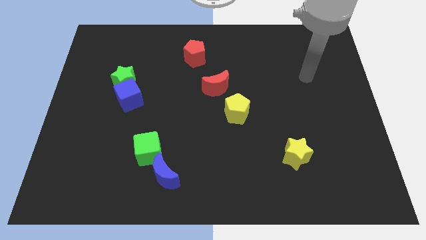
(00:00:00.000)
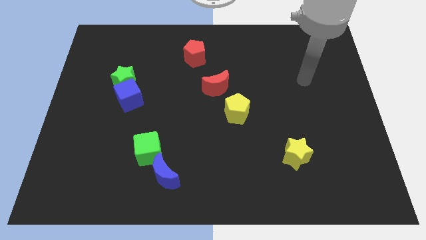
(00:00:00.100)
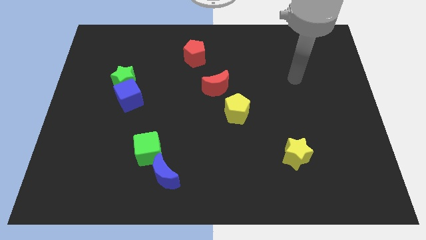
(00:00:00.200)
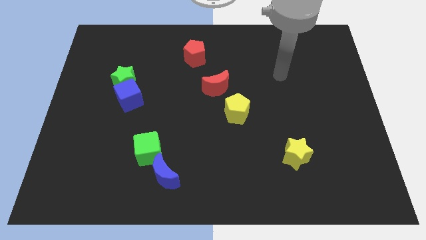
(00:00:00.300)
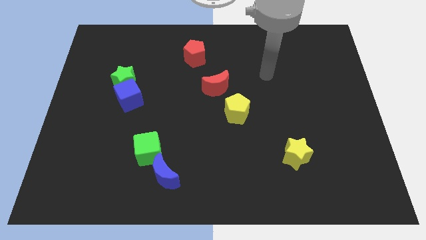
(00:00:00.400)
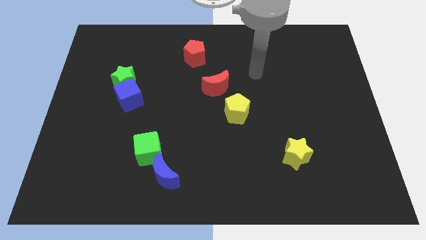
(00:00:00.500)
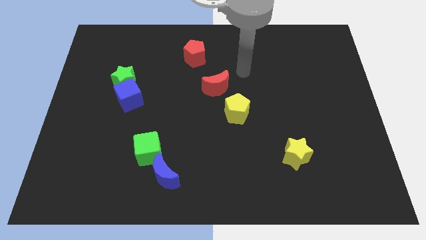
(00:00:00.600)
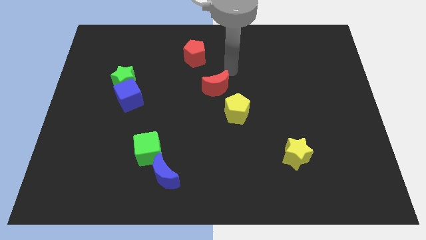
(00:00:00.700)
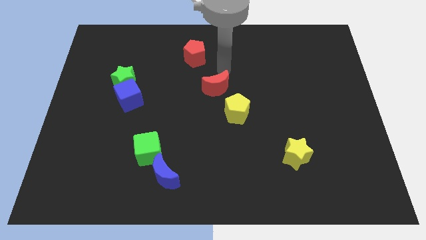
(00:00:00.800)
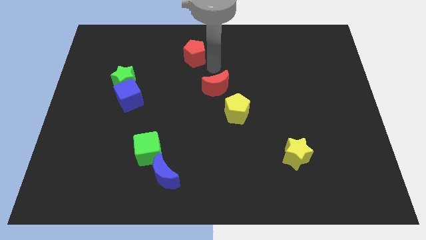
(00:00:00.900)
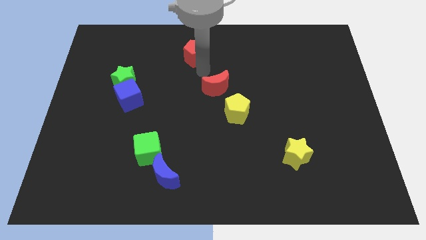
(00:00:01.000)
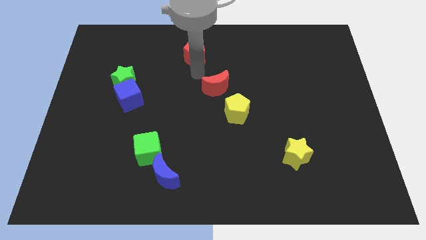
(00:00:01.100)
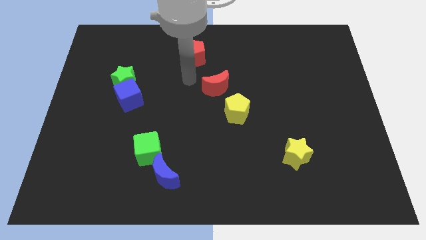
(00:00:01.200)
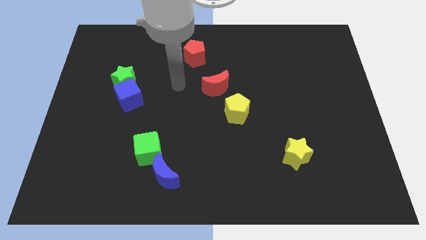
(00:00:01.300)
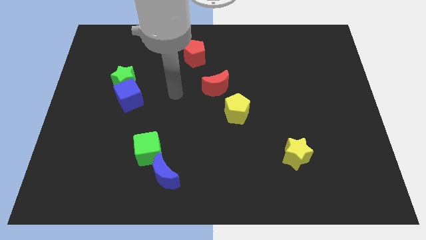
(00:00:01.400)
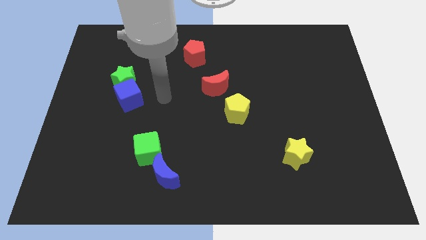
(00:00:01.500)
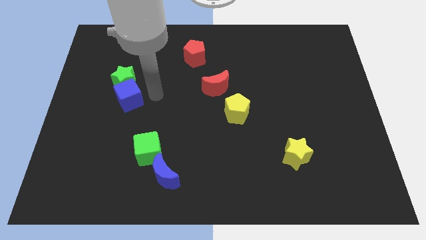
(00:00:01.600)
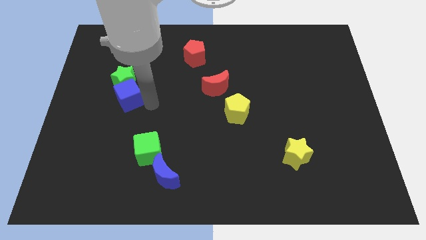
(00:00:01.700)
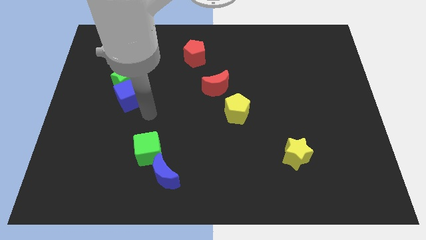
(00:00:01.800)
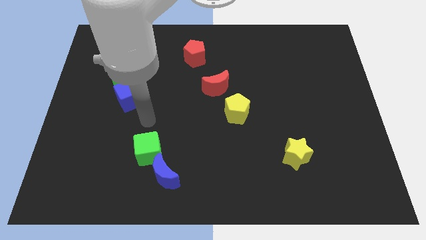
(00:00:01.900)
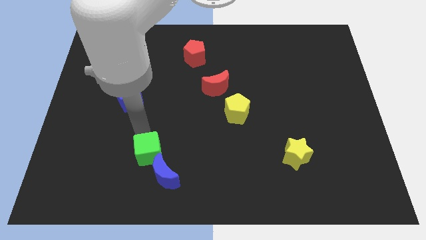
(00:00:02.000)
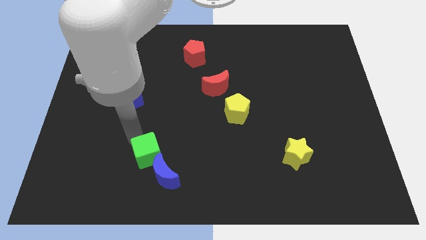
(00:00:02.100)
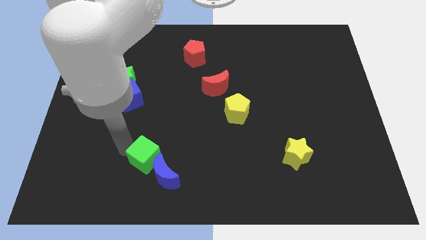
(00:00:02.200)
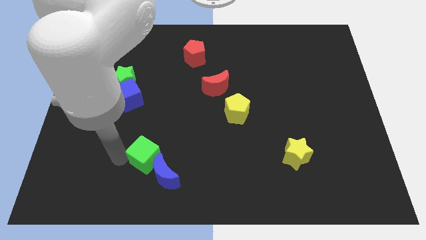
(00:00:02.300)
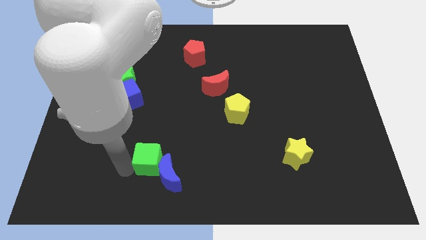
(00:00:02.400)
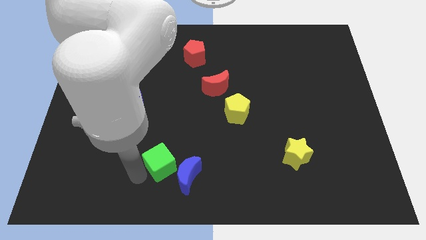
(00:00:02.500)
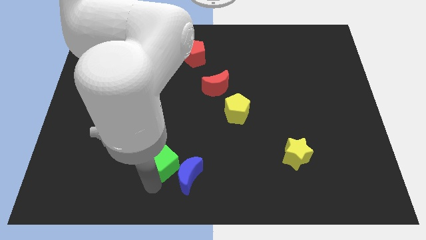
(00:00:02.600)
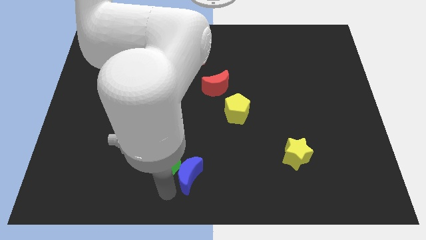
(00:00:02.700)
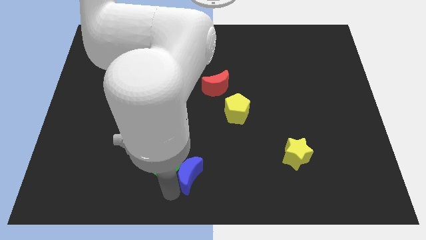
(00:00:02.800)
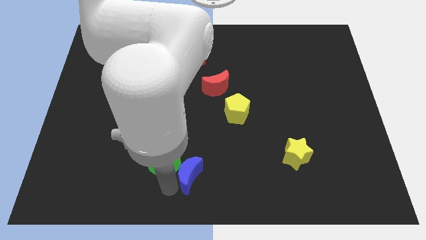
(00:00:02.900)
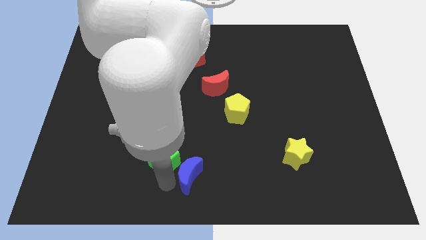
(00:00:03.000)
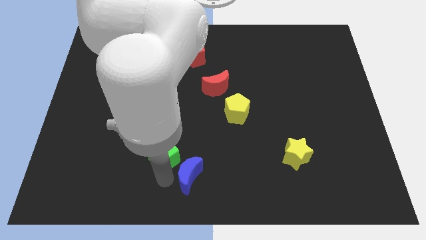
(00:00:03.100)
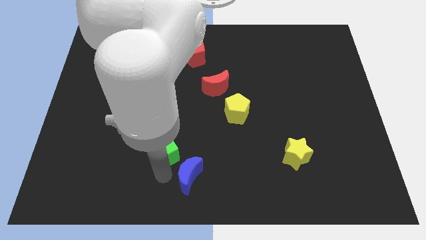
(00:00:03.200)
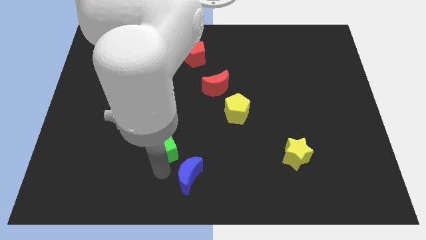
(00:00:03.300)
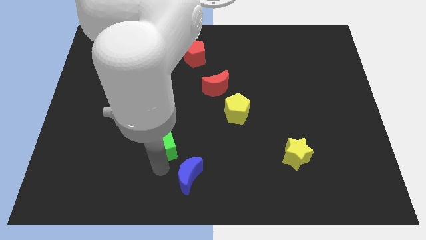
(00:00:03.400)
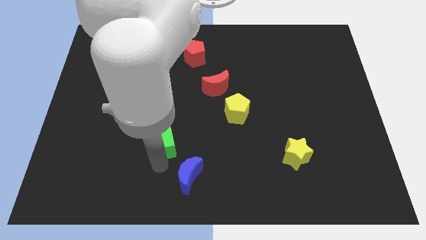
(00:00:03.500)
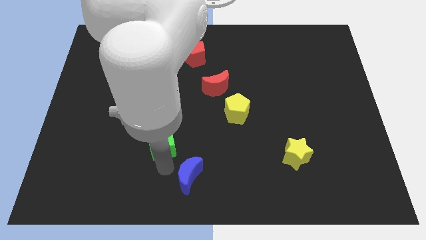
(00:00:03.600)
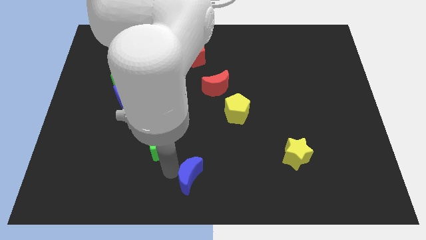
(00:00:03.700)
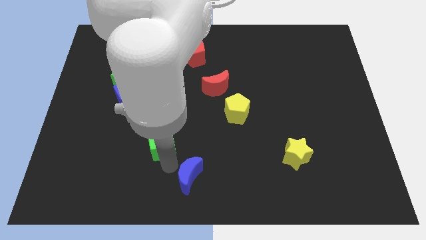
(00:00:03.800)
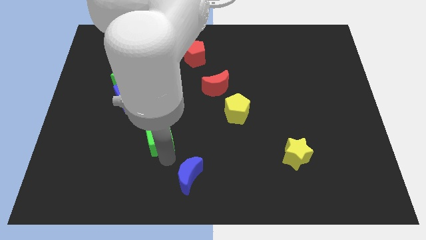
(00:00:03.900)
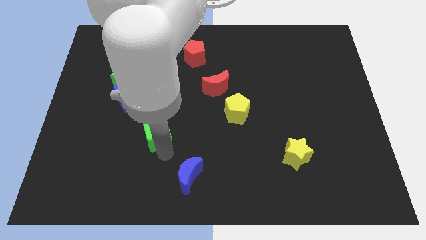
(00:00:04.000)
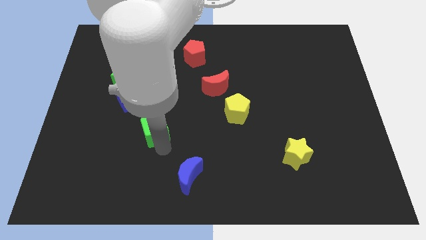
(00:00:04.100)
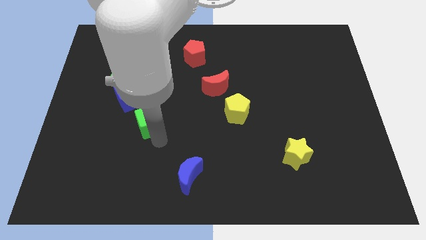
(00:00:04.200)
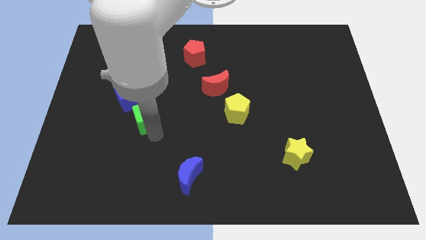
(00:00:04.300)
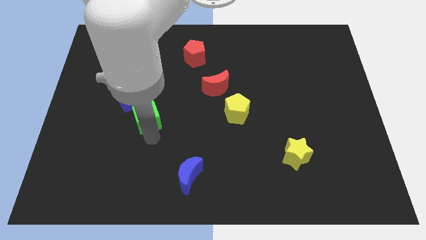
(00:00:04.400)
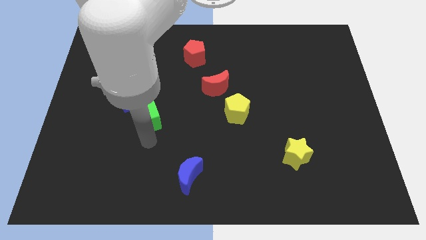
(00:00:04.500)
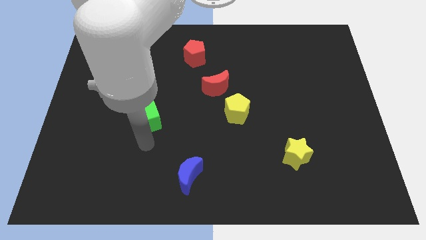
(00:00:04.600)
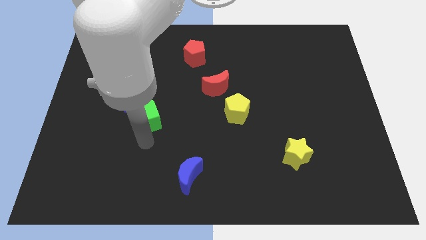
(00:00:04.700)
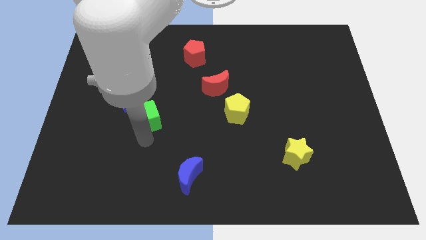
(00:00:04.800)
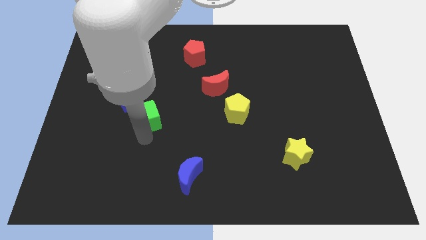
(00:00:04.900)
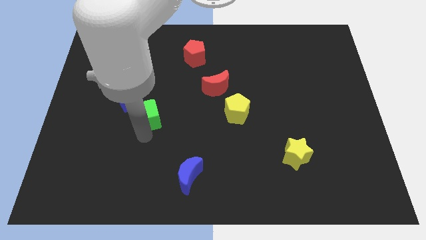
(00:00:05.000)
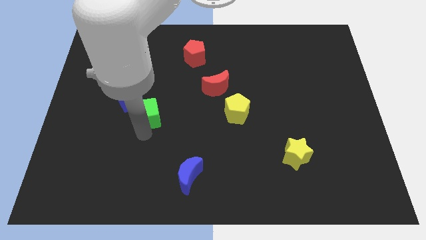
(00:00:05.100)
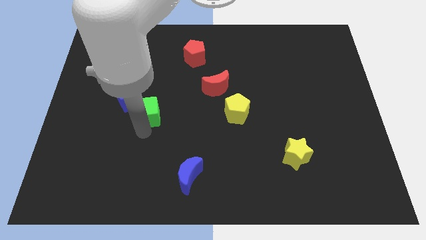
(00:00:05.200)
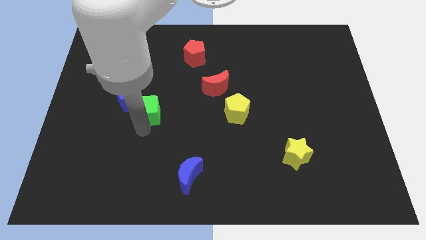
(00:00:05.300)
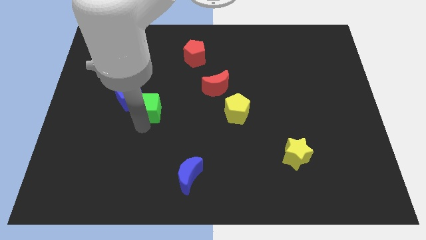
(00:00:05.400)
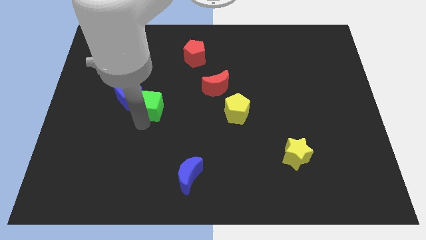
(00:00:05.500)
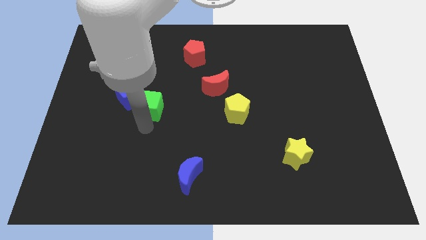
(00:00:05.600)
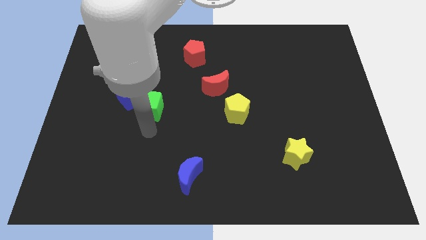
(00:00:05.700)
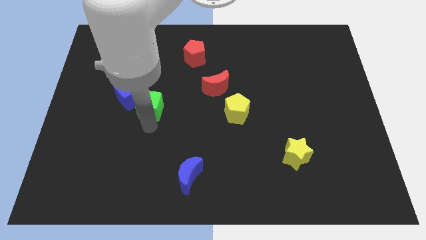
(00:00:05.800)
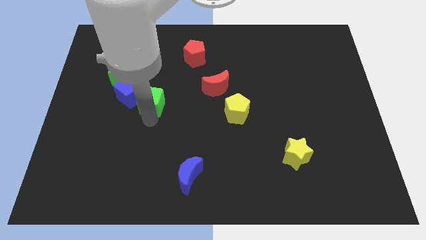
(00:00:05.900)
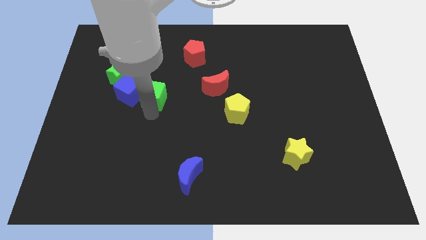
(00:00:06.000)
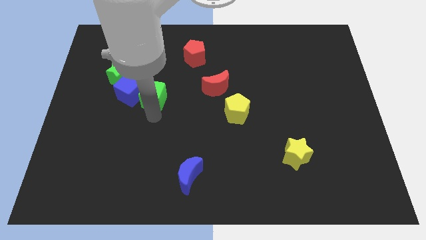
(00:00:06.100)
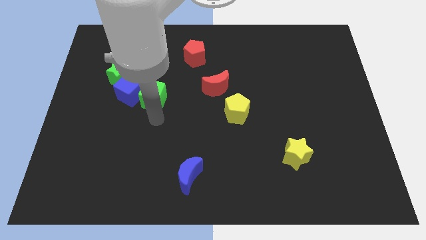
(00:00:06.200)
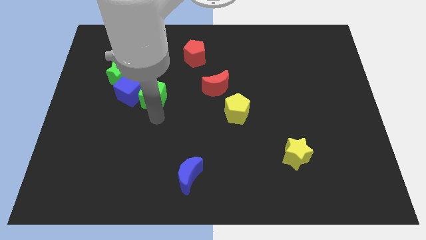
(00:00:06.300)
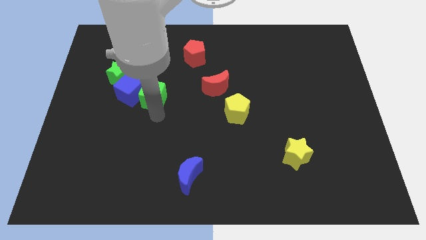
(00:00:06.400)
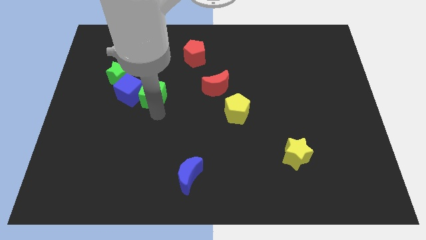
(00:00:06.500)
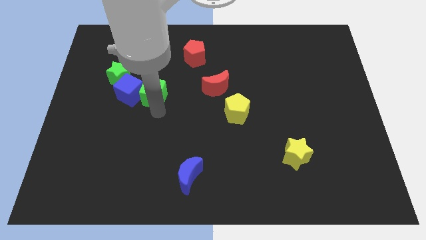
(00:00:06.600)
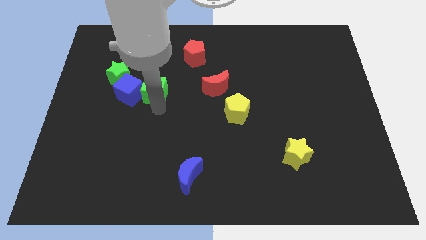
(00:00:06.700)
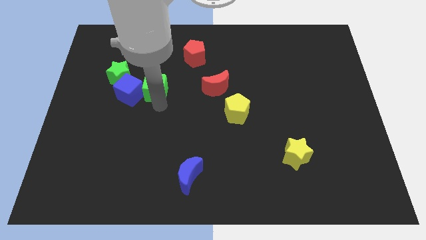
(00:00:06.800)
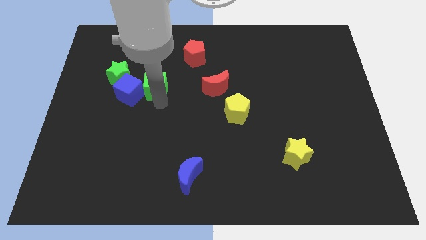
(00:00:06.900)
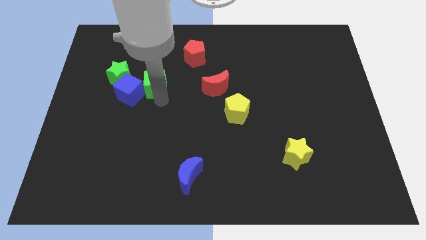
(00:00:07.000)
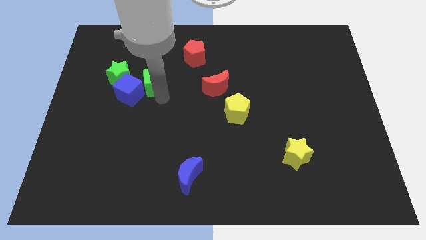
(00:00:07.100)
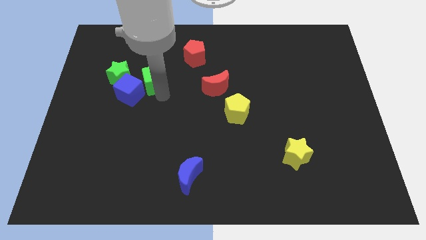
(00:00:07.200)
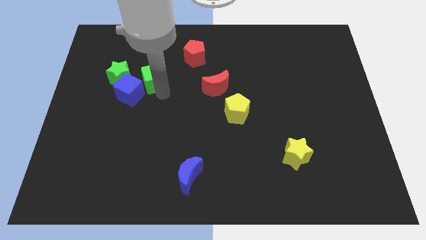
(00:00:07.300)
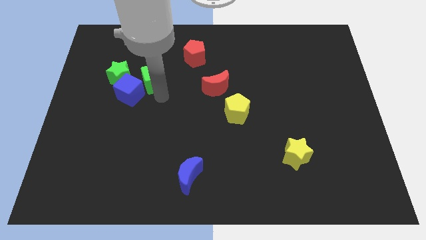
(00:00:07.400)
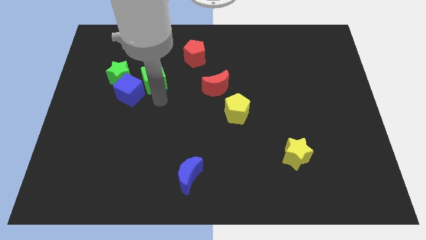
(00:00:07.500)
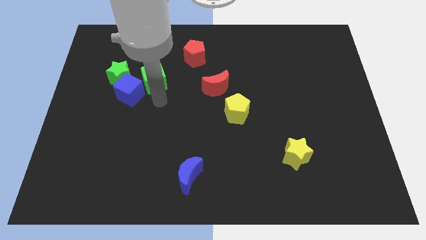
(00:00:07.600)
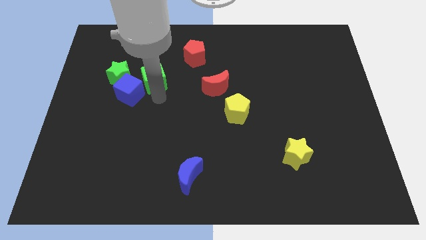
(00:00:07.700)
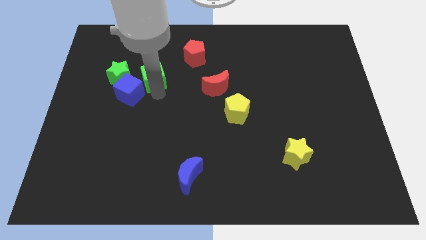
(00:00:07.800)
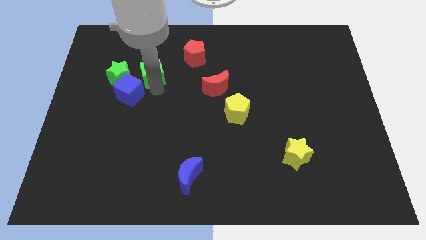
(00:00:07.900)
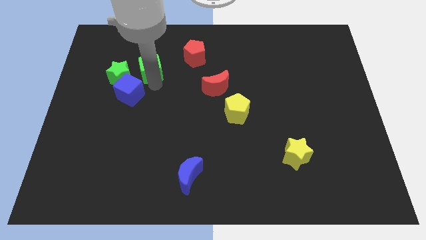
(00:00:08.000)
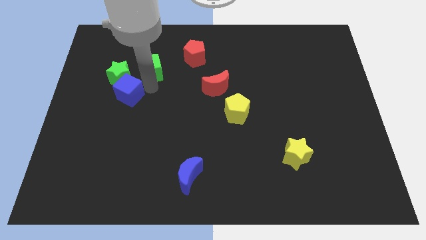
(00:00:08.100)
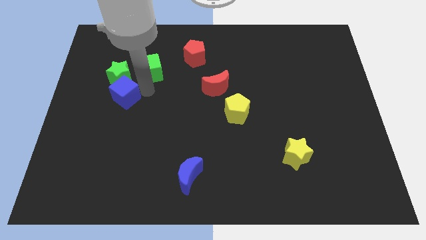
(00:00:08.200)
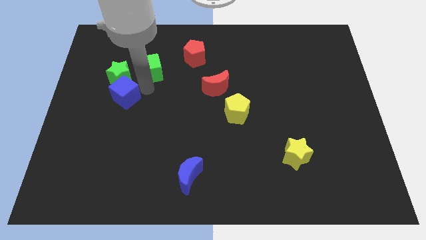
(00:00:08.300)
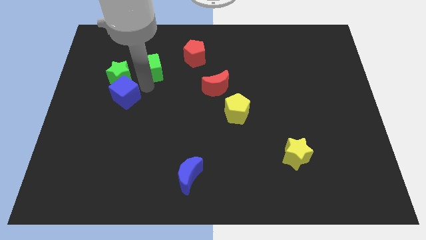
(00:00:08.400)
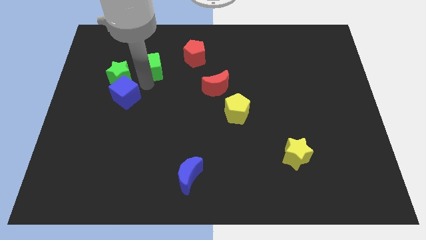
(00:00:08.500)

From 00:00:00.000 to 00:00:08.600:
slide the green cube left of the red pentagon
